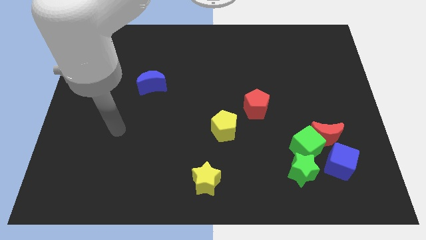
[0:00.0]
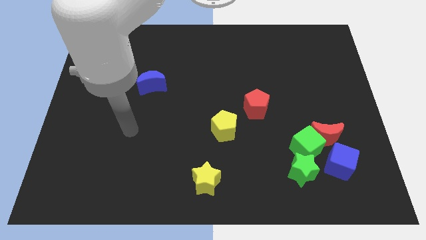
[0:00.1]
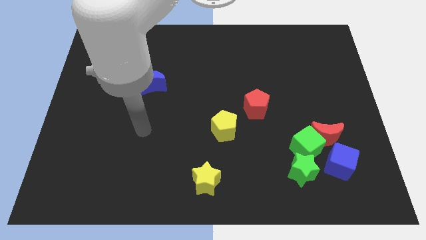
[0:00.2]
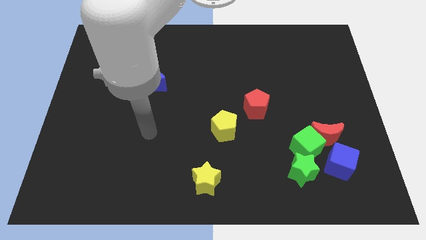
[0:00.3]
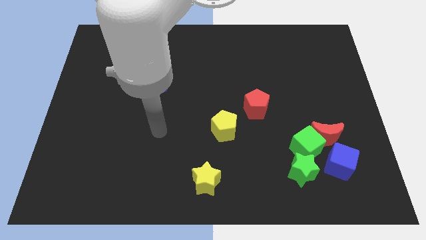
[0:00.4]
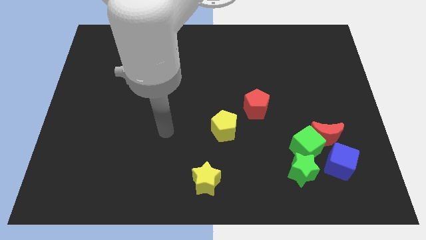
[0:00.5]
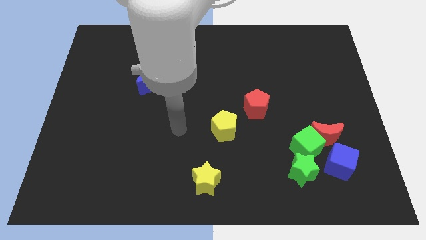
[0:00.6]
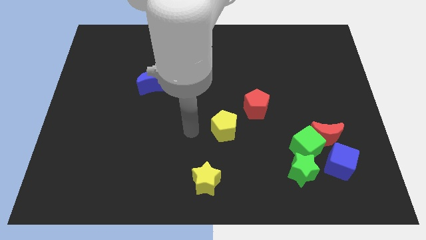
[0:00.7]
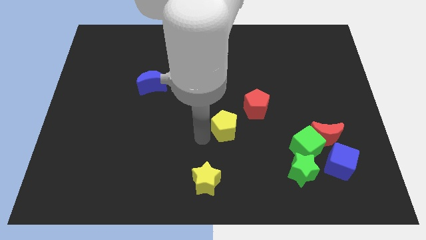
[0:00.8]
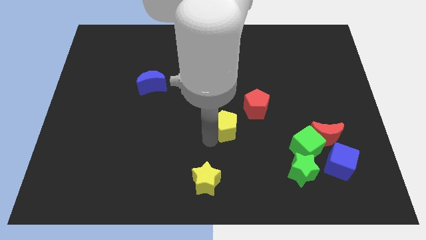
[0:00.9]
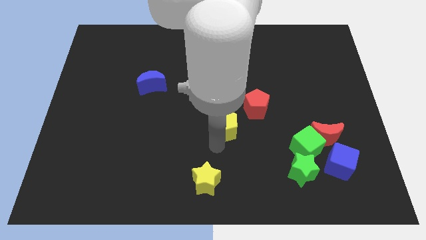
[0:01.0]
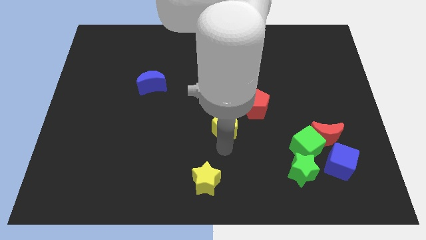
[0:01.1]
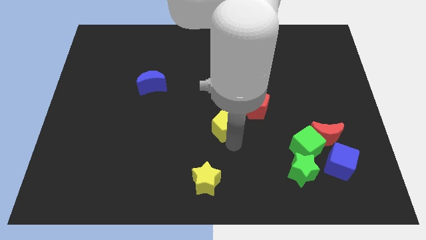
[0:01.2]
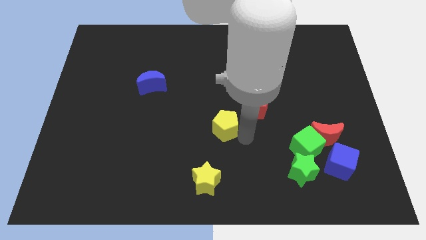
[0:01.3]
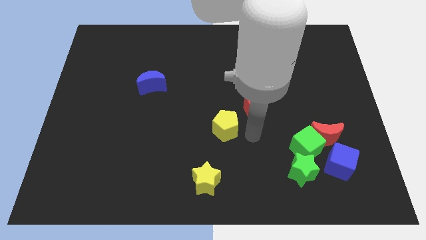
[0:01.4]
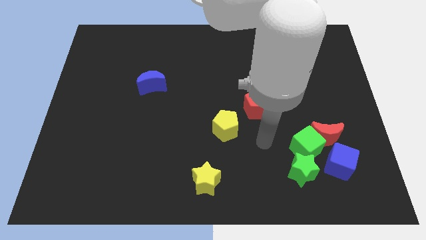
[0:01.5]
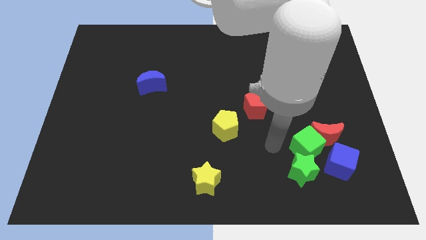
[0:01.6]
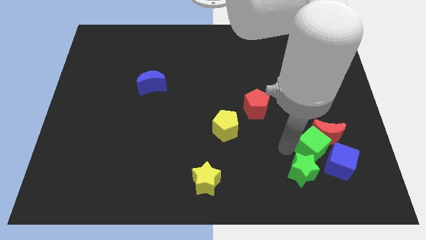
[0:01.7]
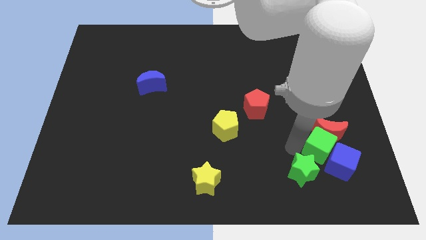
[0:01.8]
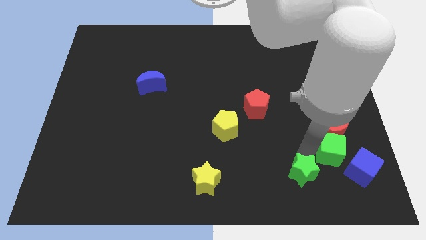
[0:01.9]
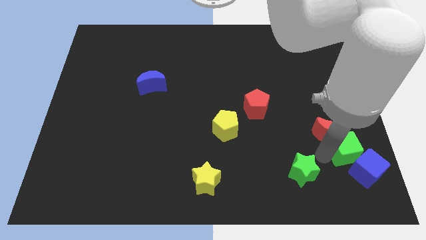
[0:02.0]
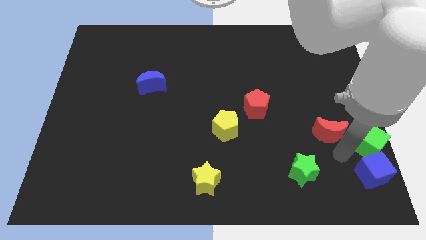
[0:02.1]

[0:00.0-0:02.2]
pull the red moon apart from the green cube and blue cube

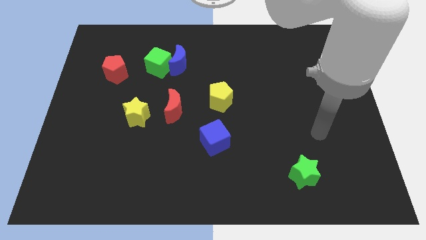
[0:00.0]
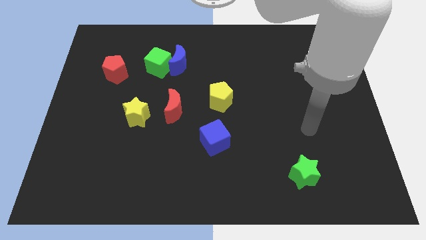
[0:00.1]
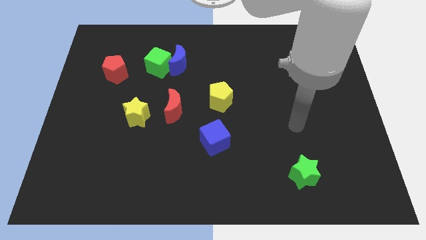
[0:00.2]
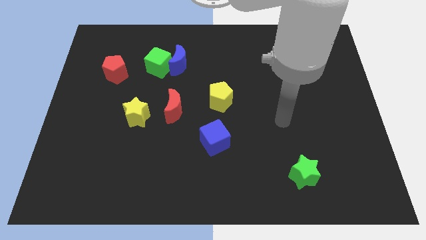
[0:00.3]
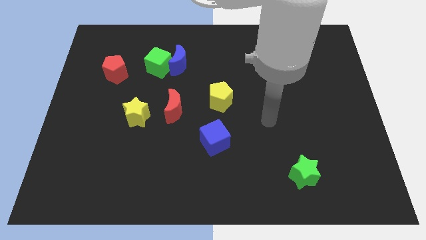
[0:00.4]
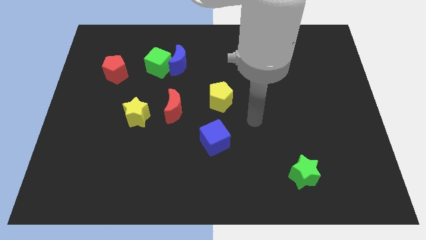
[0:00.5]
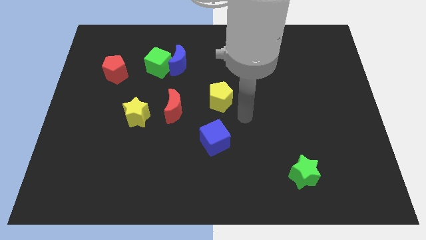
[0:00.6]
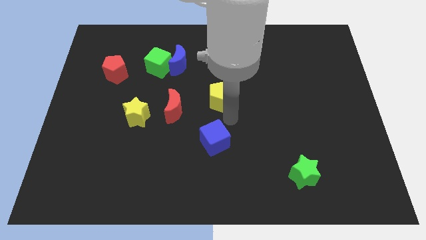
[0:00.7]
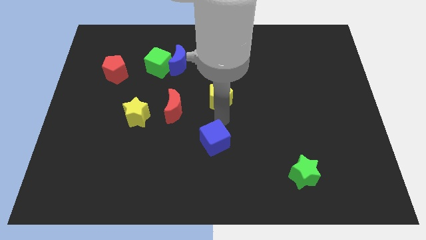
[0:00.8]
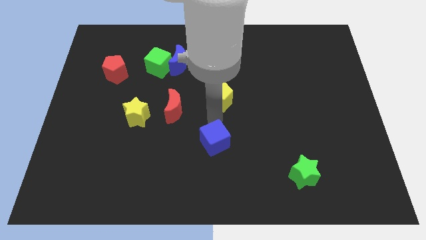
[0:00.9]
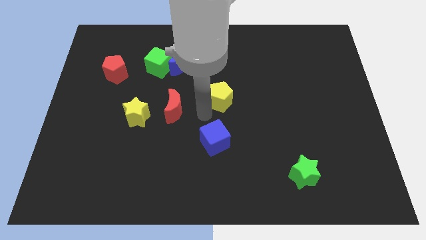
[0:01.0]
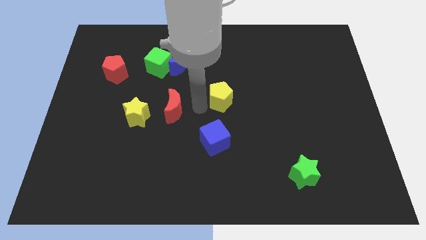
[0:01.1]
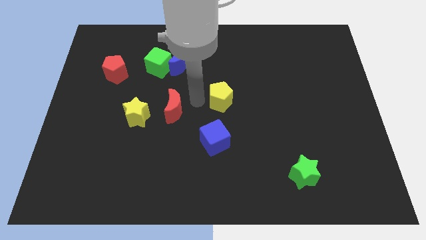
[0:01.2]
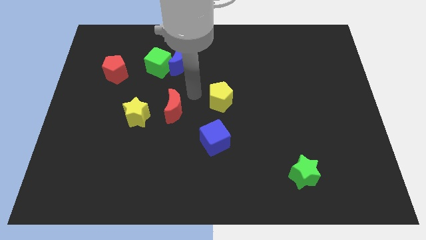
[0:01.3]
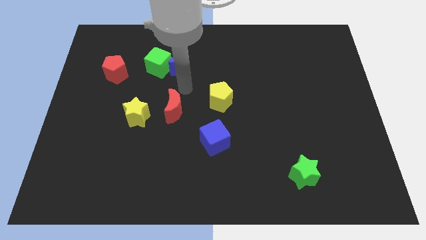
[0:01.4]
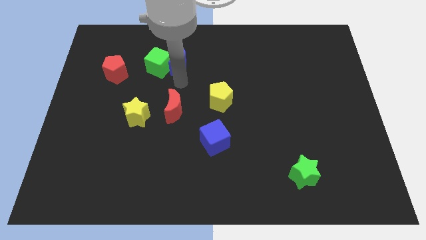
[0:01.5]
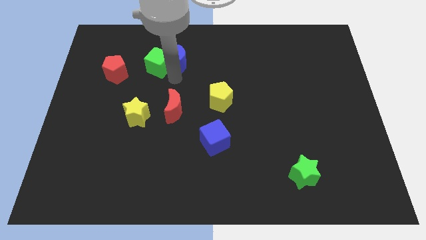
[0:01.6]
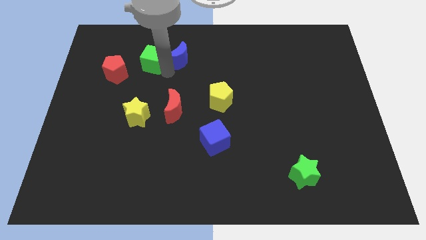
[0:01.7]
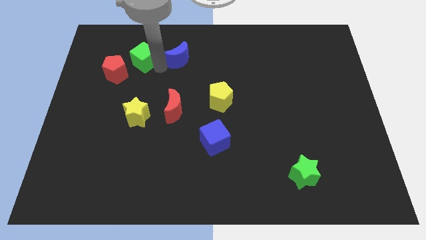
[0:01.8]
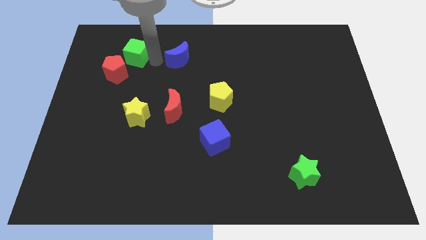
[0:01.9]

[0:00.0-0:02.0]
separate the blue moon from the green cube

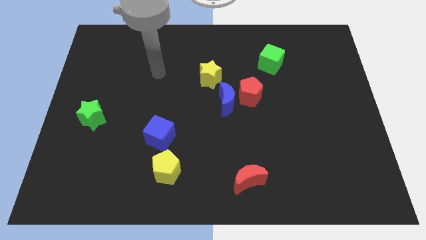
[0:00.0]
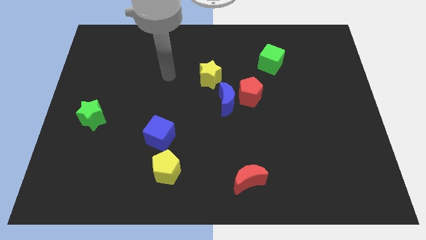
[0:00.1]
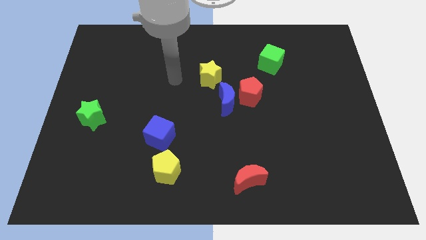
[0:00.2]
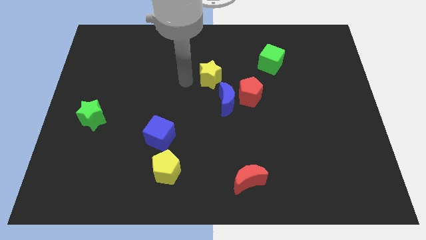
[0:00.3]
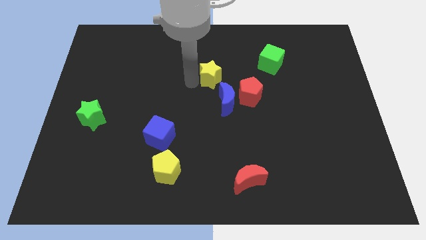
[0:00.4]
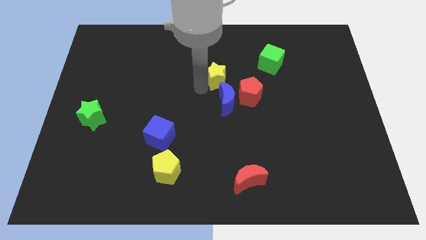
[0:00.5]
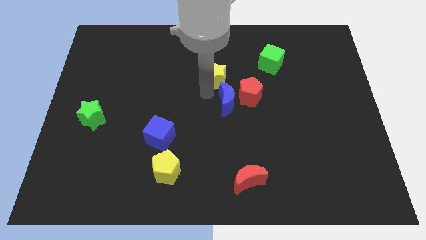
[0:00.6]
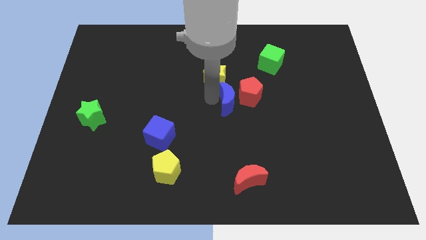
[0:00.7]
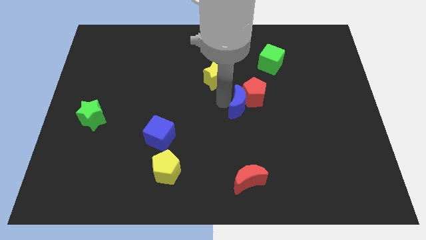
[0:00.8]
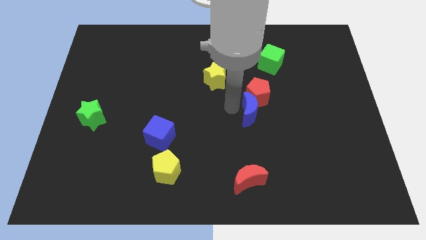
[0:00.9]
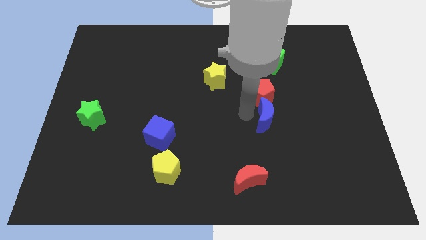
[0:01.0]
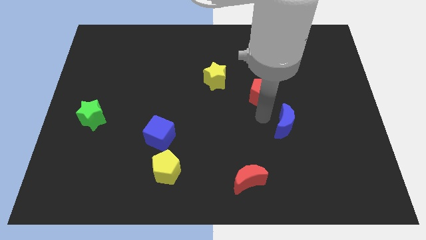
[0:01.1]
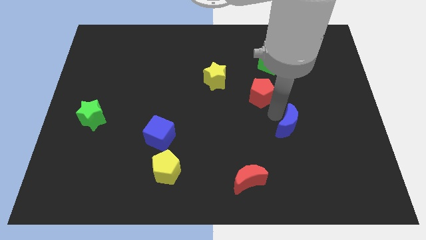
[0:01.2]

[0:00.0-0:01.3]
move the red pentagon away from the blue moon

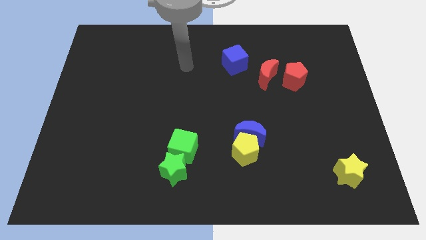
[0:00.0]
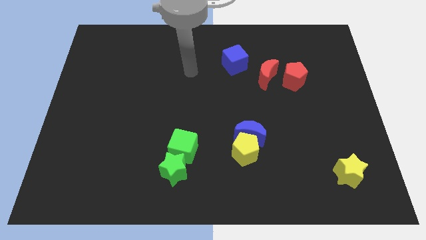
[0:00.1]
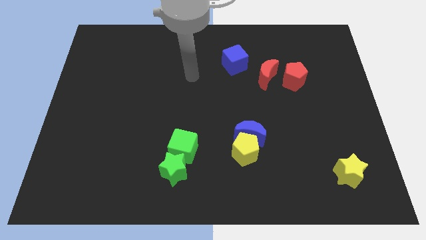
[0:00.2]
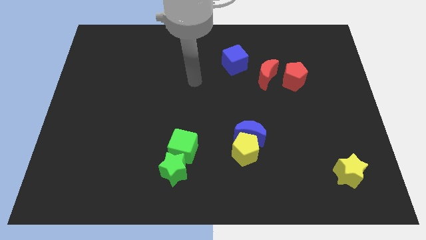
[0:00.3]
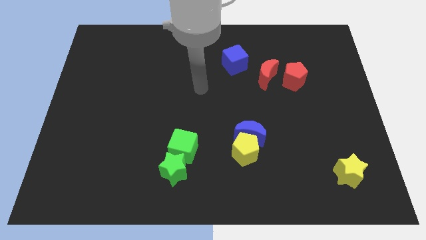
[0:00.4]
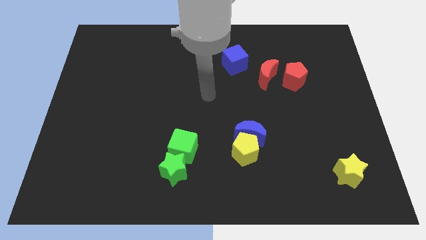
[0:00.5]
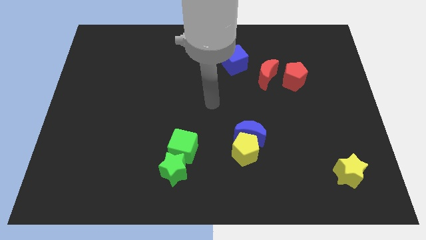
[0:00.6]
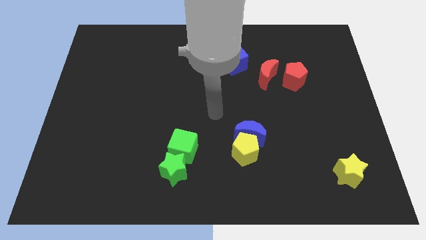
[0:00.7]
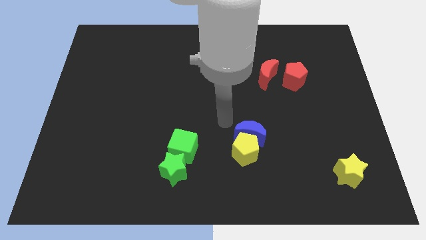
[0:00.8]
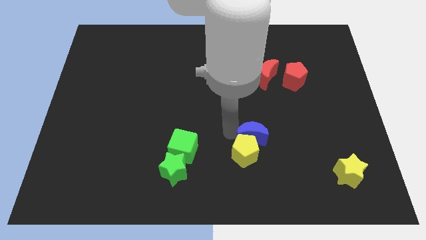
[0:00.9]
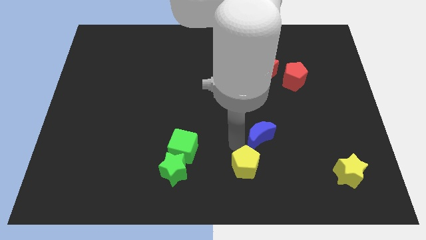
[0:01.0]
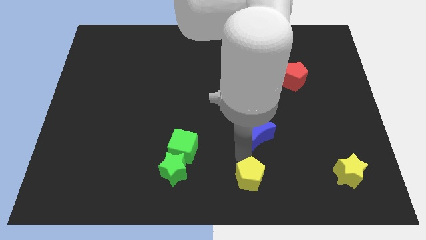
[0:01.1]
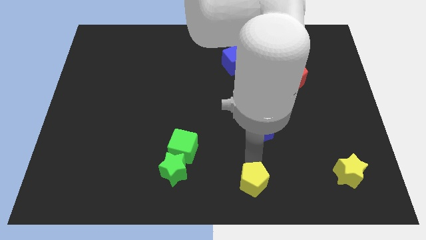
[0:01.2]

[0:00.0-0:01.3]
pull the blue moon apart from the yellow pentagon

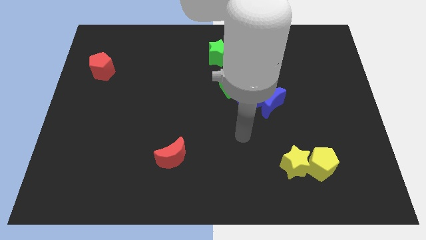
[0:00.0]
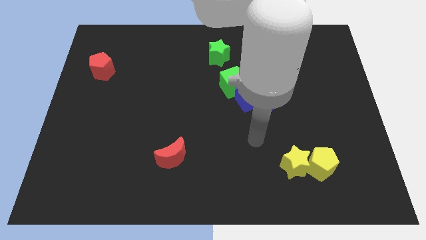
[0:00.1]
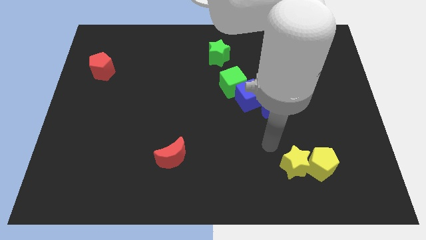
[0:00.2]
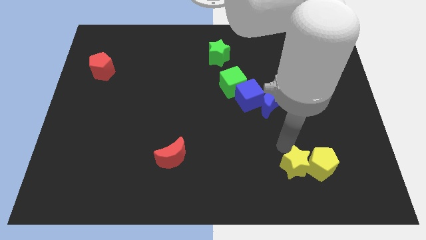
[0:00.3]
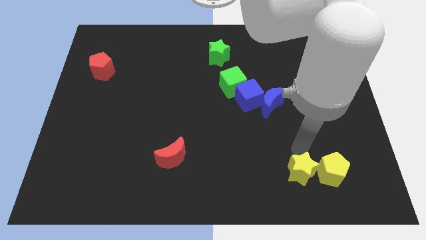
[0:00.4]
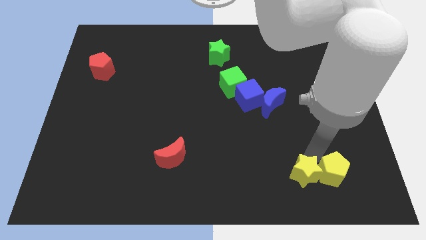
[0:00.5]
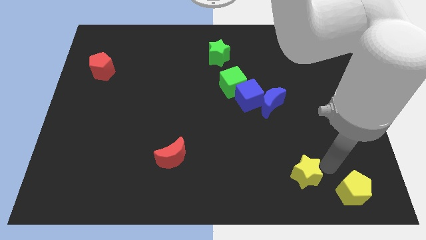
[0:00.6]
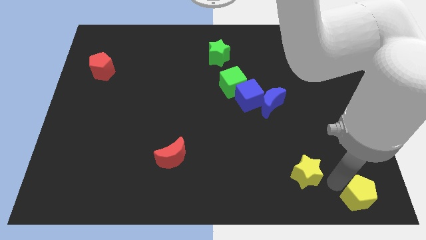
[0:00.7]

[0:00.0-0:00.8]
separate the yellow star from the yellow pentagon

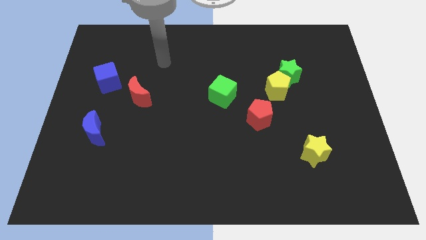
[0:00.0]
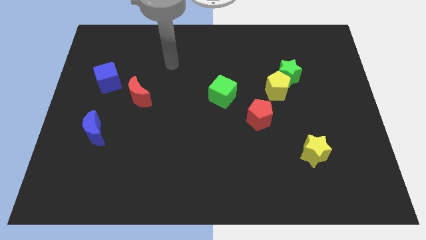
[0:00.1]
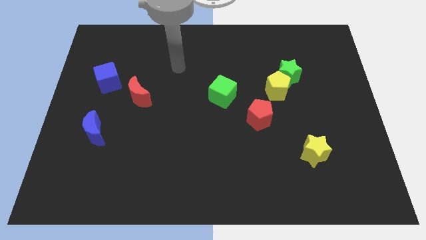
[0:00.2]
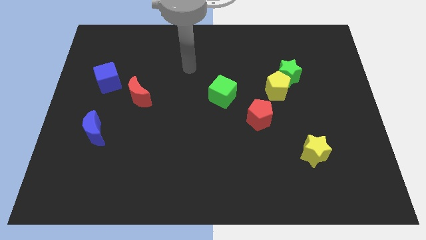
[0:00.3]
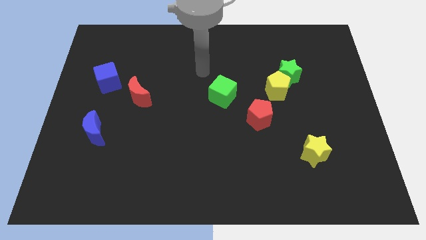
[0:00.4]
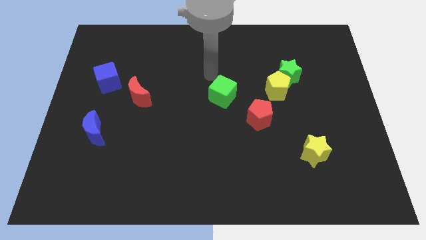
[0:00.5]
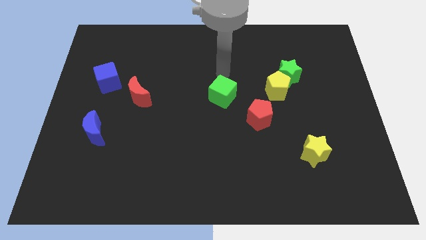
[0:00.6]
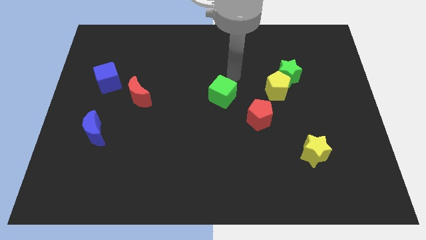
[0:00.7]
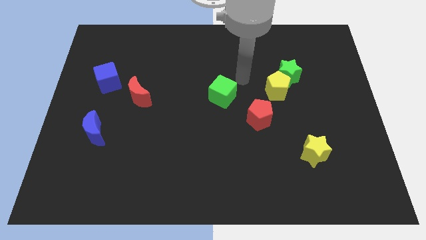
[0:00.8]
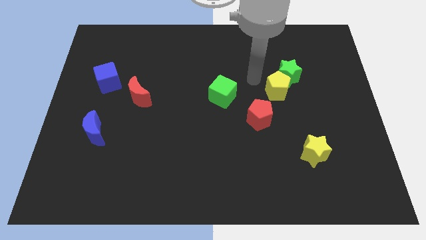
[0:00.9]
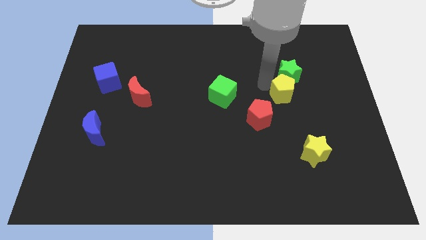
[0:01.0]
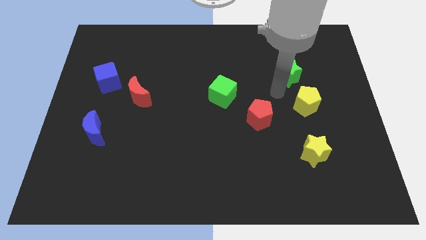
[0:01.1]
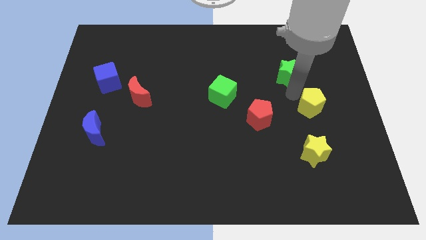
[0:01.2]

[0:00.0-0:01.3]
move the green star away from the yellow pentagon

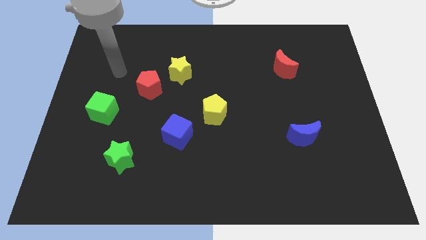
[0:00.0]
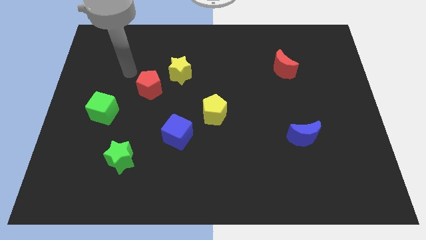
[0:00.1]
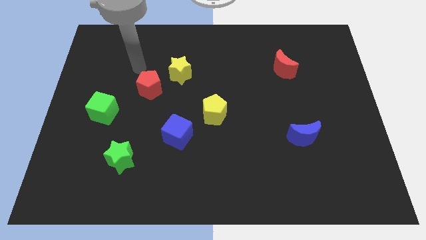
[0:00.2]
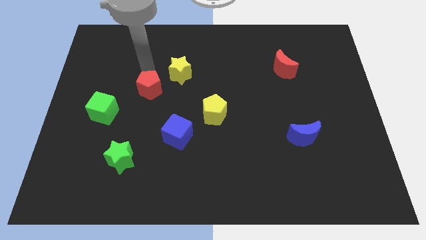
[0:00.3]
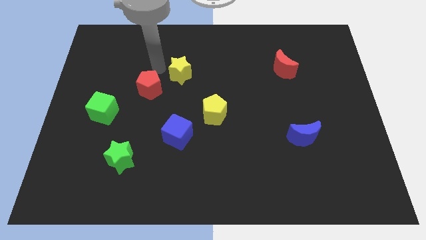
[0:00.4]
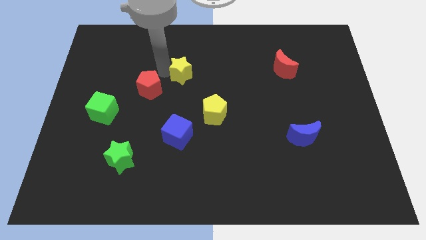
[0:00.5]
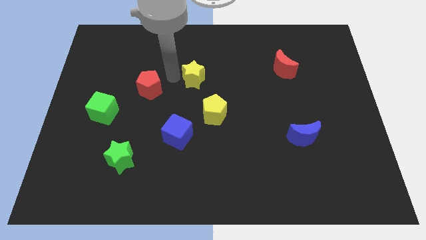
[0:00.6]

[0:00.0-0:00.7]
pull the red pentagon apart from the yellow star
